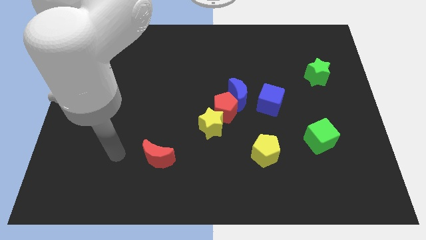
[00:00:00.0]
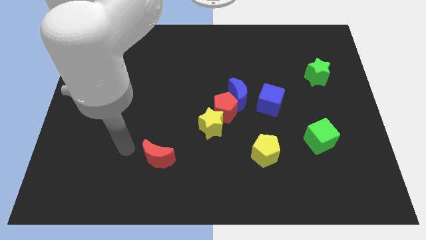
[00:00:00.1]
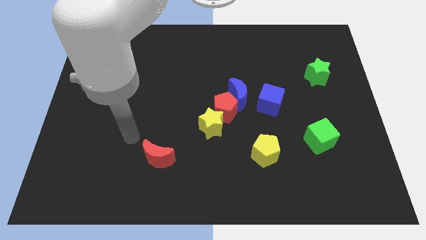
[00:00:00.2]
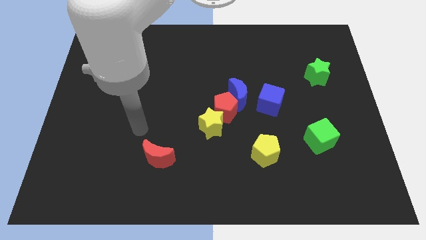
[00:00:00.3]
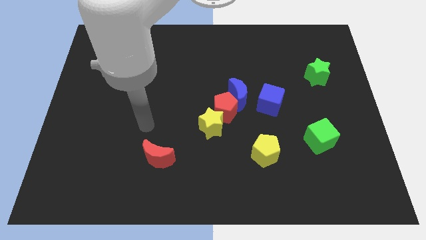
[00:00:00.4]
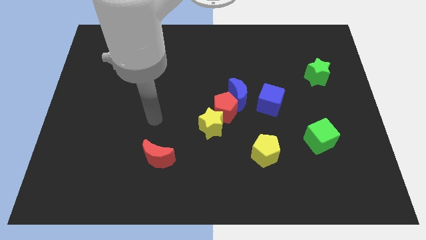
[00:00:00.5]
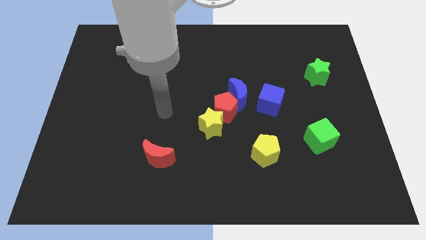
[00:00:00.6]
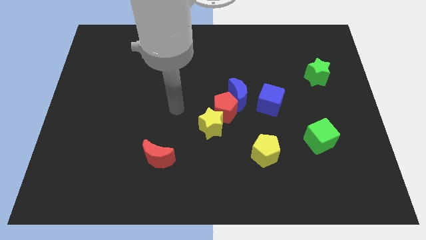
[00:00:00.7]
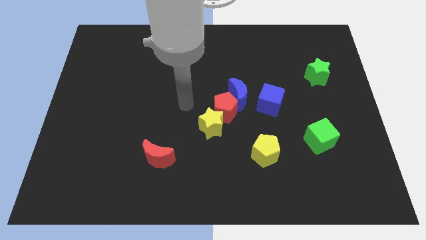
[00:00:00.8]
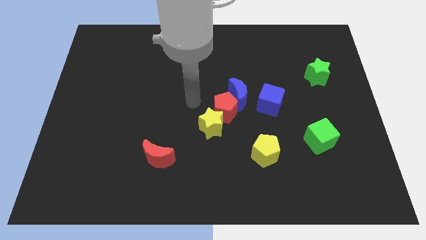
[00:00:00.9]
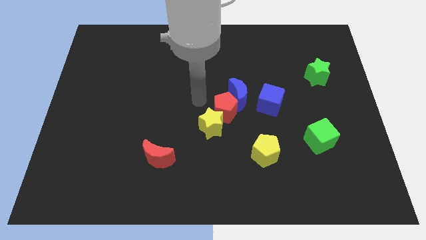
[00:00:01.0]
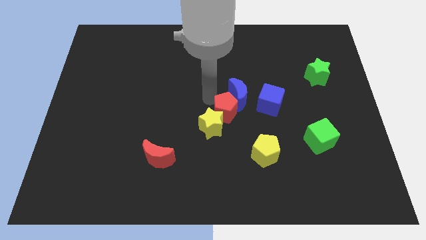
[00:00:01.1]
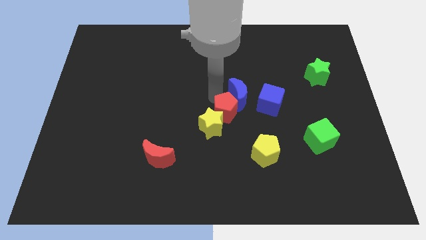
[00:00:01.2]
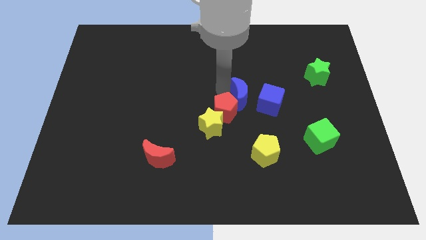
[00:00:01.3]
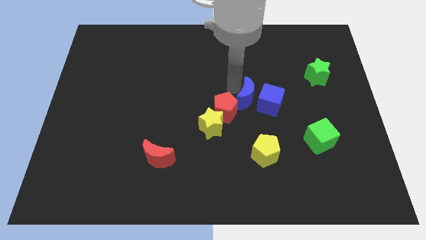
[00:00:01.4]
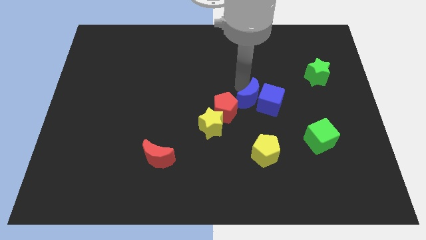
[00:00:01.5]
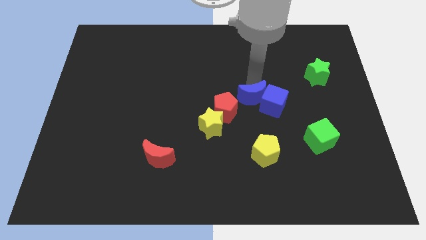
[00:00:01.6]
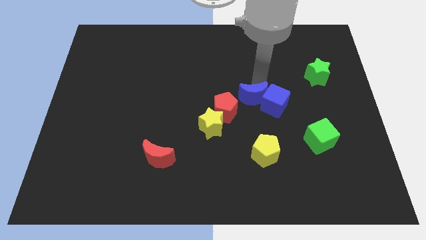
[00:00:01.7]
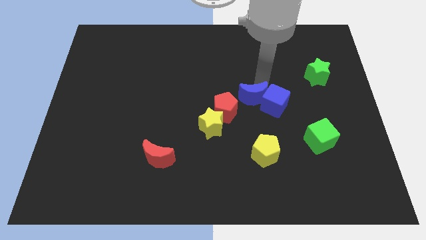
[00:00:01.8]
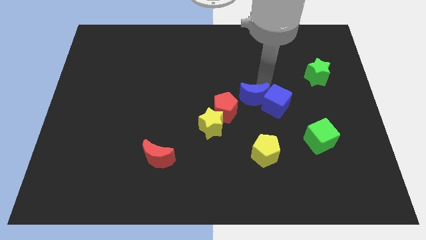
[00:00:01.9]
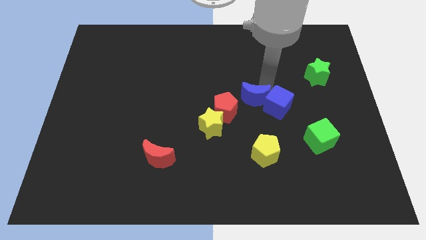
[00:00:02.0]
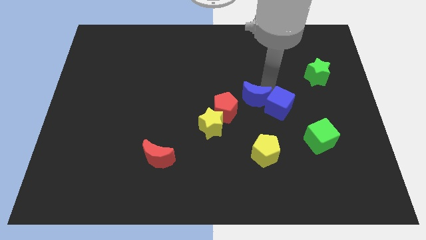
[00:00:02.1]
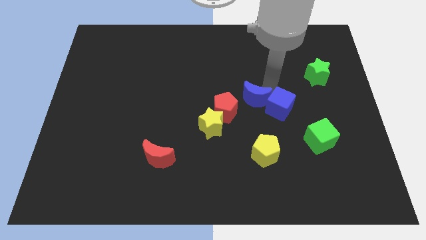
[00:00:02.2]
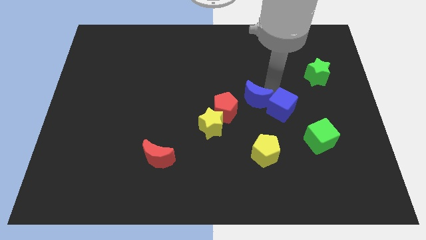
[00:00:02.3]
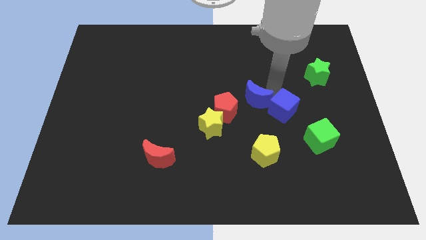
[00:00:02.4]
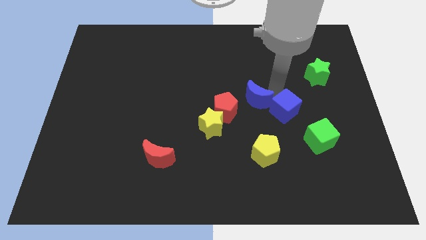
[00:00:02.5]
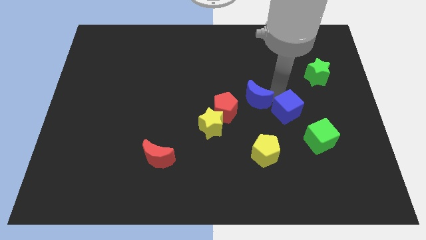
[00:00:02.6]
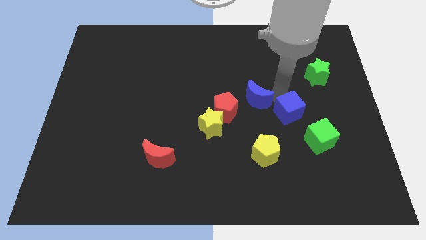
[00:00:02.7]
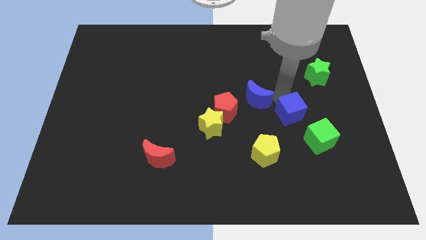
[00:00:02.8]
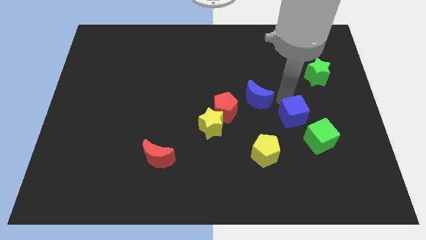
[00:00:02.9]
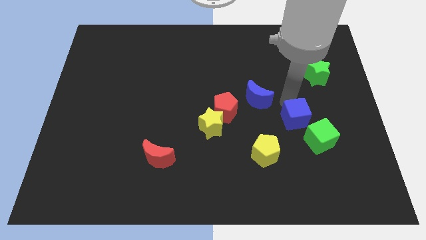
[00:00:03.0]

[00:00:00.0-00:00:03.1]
slightly move the blue cube down and right

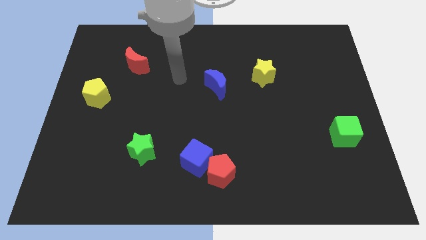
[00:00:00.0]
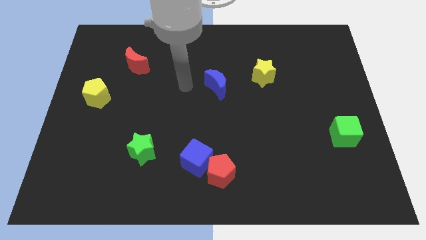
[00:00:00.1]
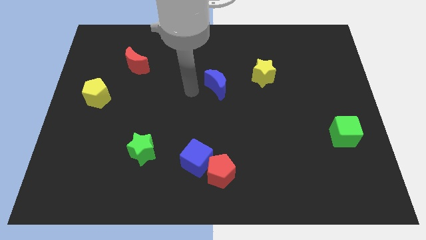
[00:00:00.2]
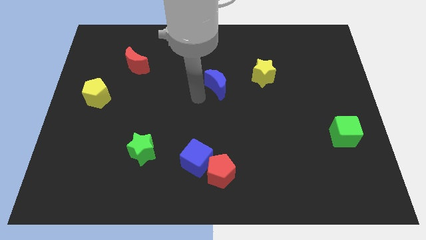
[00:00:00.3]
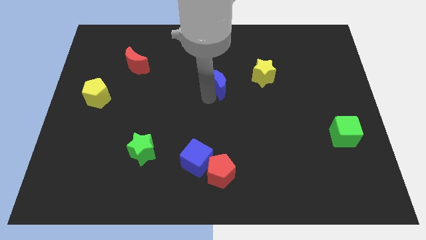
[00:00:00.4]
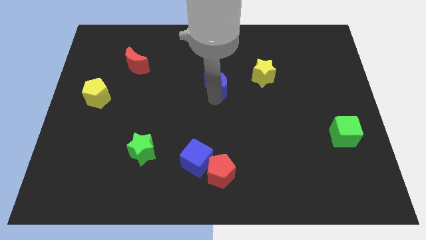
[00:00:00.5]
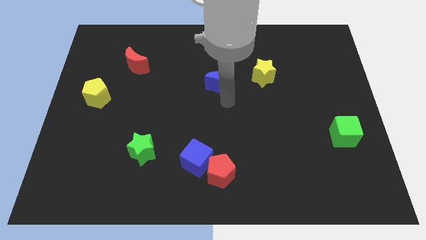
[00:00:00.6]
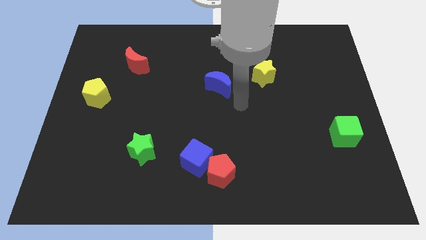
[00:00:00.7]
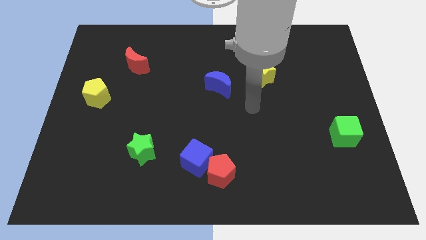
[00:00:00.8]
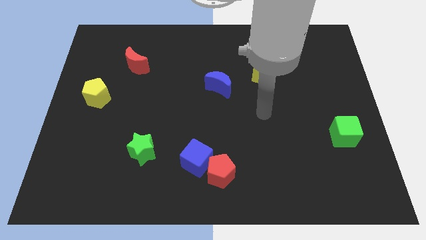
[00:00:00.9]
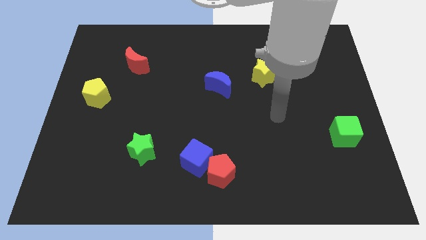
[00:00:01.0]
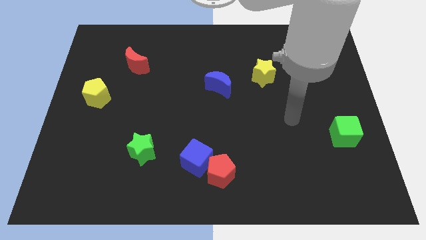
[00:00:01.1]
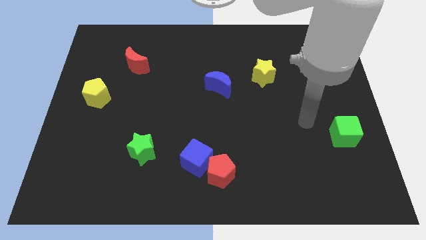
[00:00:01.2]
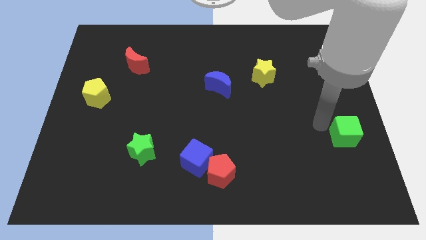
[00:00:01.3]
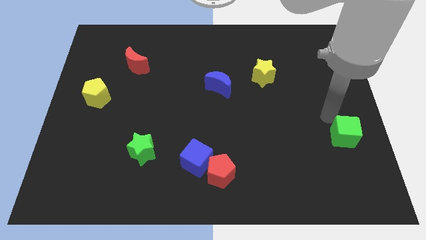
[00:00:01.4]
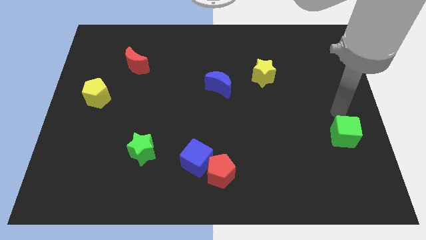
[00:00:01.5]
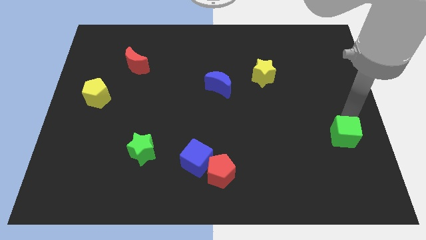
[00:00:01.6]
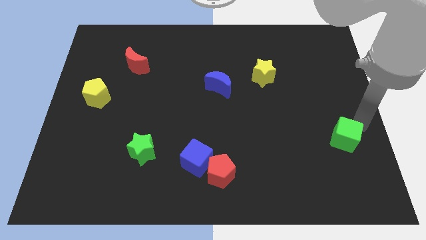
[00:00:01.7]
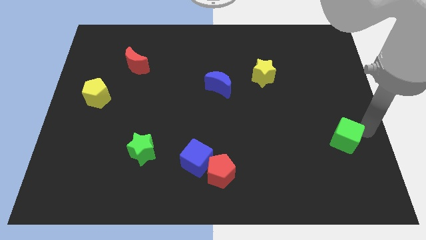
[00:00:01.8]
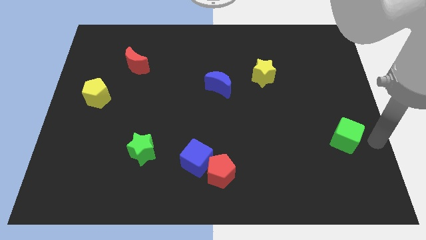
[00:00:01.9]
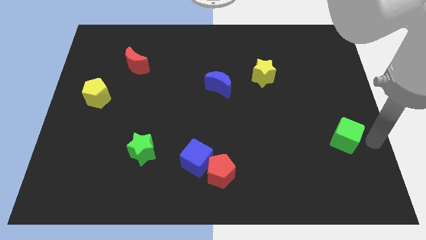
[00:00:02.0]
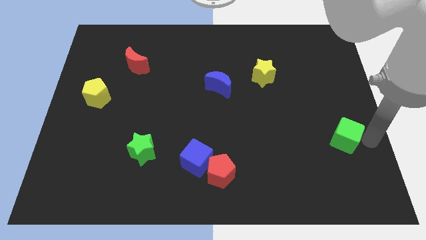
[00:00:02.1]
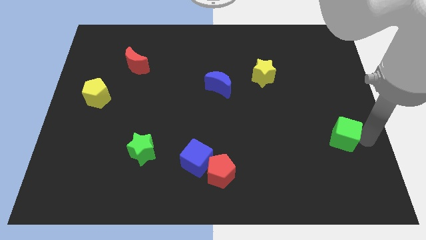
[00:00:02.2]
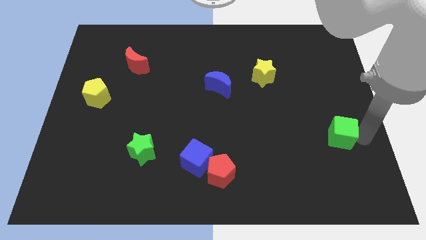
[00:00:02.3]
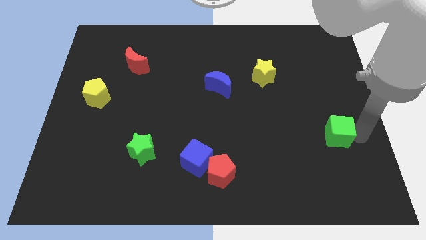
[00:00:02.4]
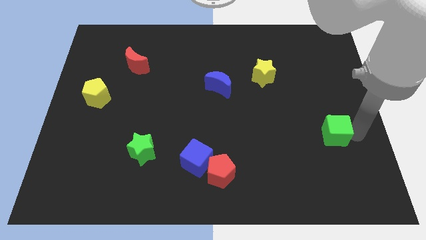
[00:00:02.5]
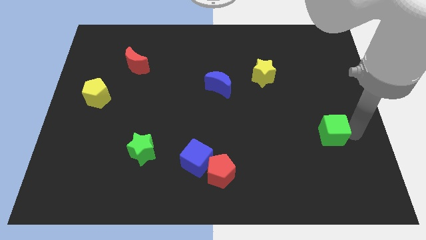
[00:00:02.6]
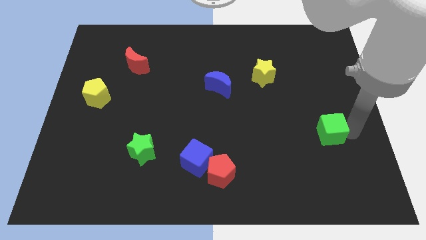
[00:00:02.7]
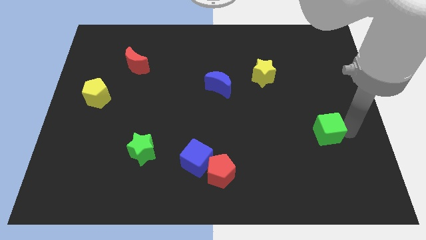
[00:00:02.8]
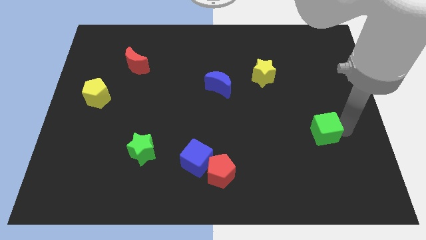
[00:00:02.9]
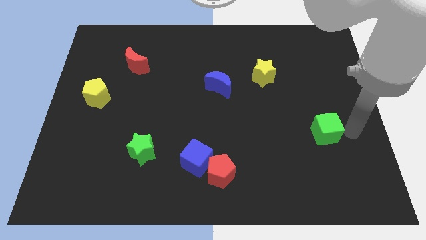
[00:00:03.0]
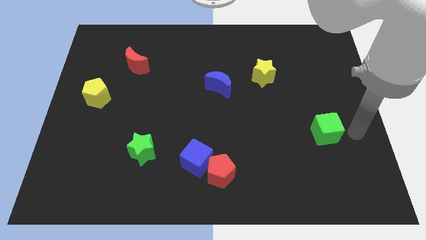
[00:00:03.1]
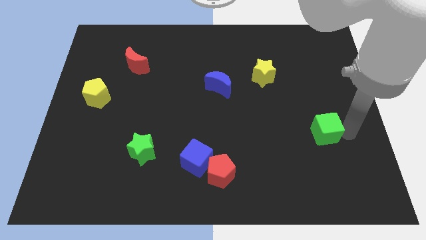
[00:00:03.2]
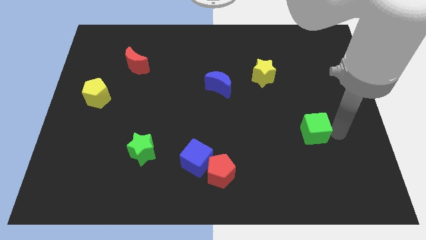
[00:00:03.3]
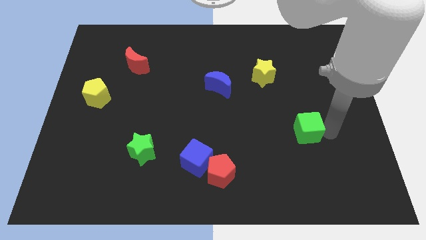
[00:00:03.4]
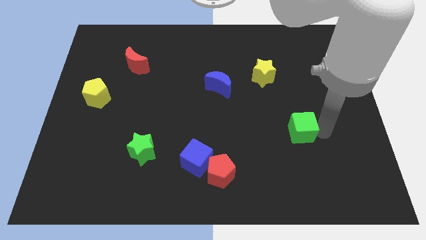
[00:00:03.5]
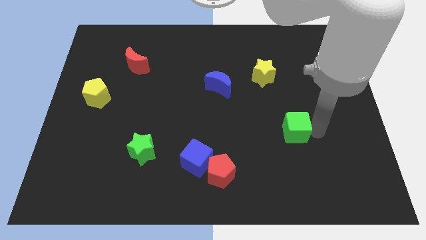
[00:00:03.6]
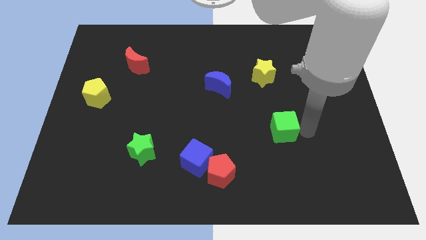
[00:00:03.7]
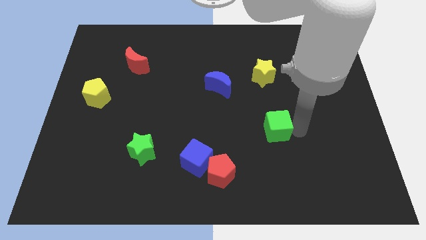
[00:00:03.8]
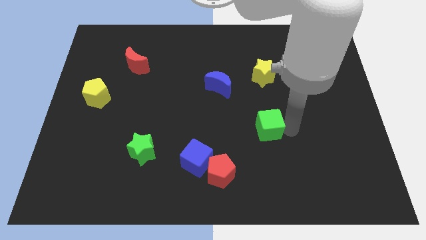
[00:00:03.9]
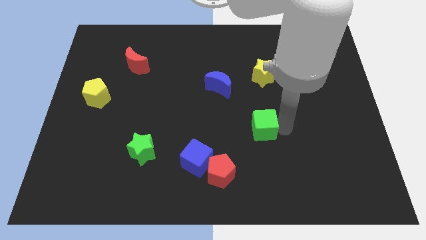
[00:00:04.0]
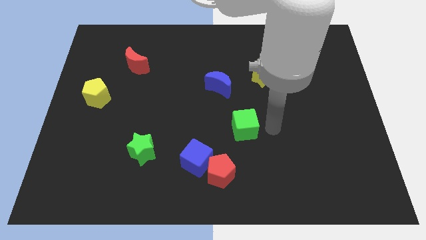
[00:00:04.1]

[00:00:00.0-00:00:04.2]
slide the green cube to the left

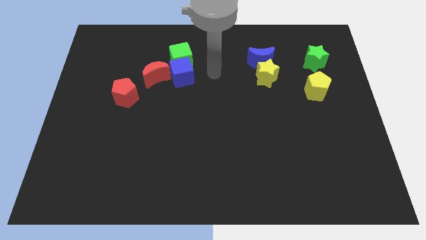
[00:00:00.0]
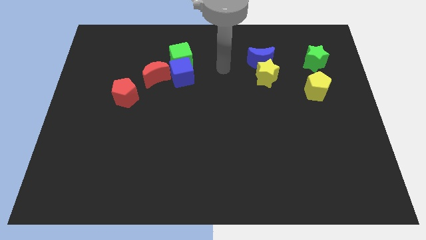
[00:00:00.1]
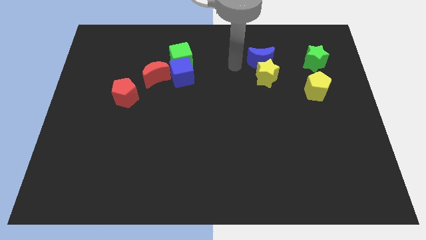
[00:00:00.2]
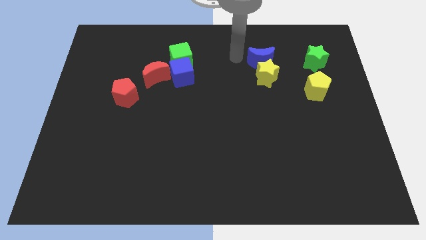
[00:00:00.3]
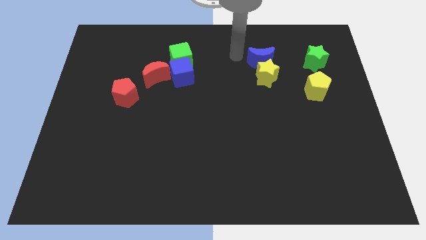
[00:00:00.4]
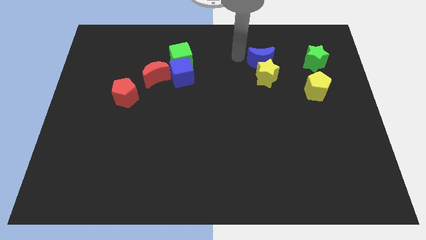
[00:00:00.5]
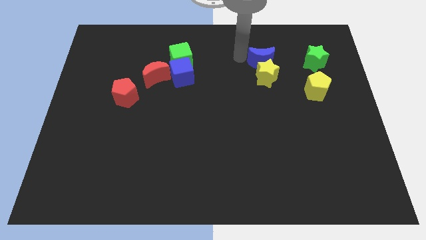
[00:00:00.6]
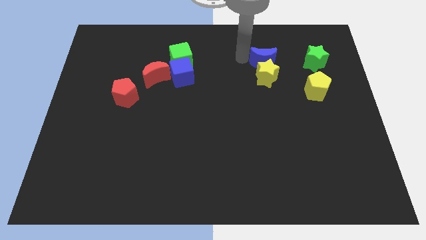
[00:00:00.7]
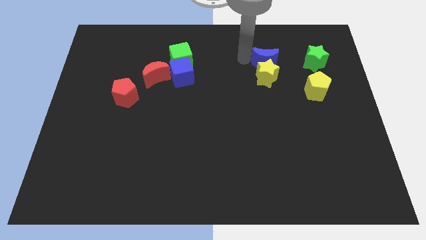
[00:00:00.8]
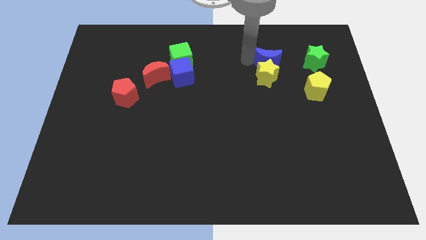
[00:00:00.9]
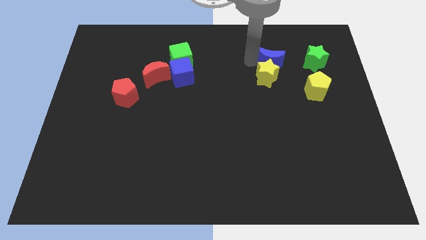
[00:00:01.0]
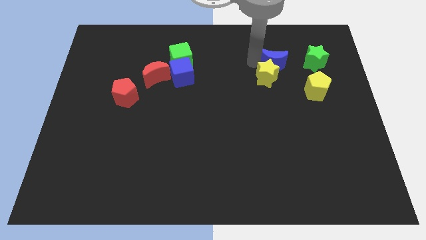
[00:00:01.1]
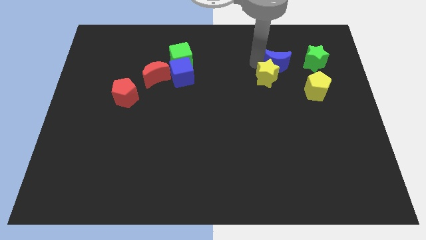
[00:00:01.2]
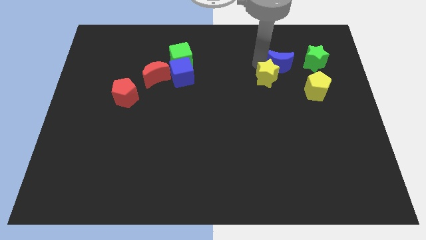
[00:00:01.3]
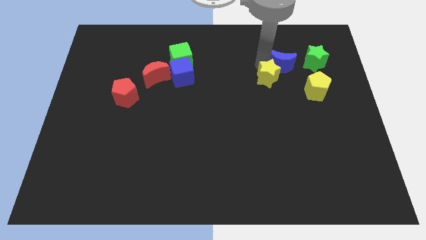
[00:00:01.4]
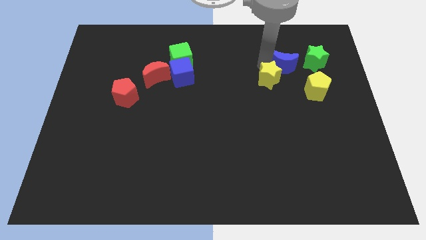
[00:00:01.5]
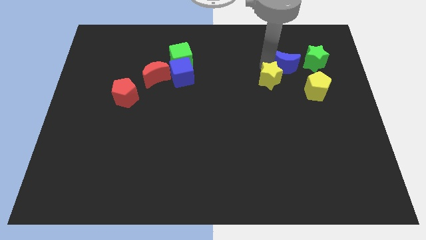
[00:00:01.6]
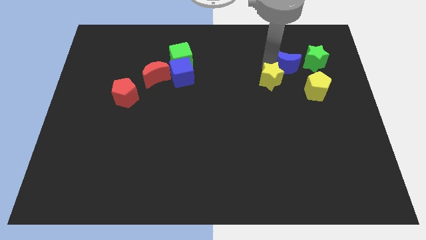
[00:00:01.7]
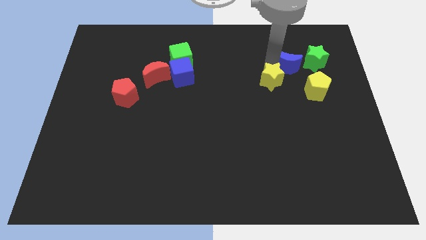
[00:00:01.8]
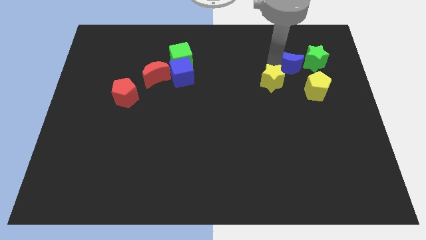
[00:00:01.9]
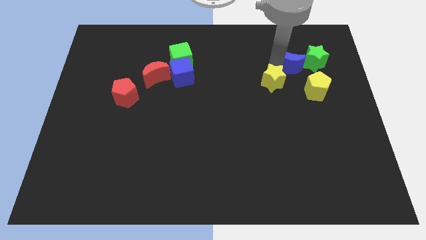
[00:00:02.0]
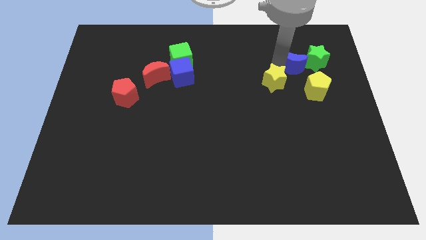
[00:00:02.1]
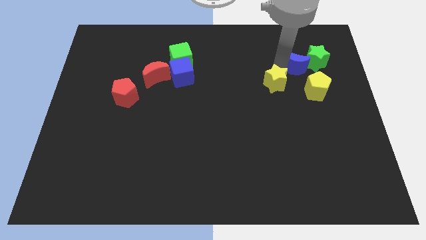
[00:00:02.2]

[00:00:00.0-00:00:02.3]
move the blue moon downwards and right diagonally a little
